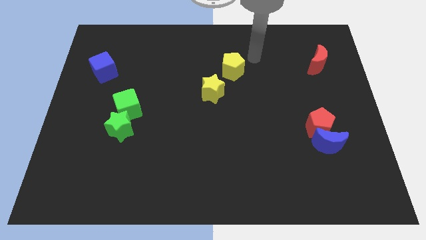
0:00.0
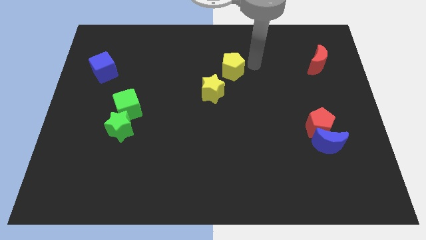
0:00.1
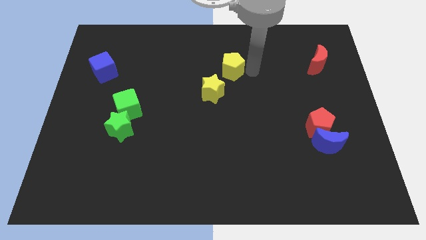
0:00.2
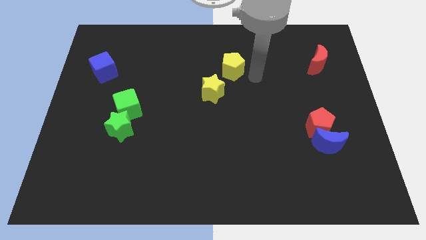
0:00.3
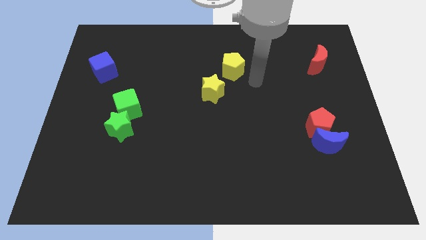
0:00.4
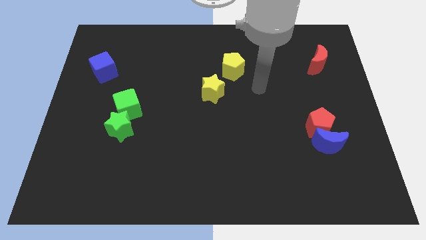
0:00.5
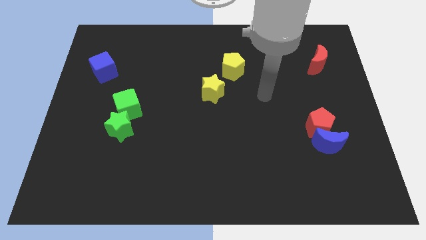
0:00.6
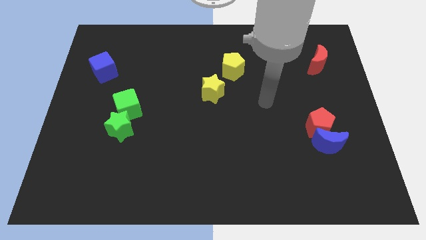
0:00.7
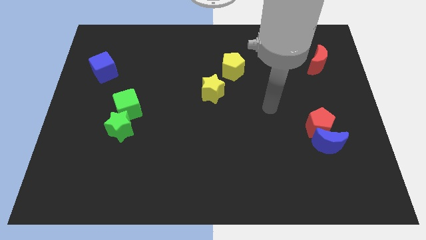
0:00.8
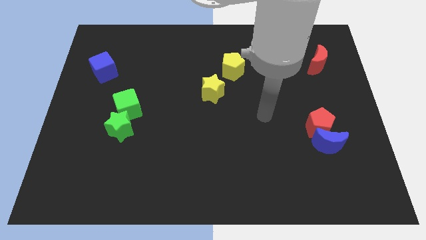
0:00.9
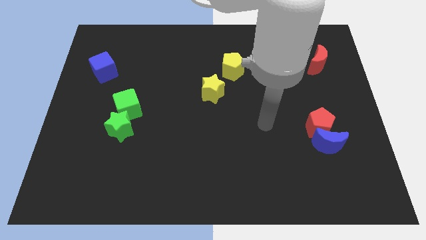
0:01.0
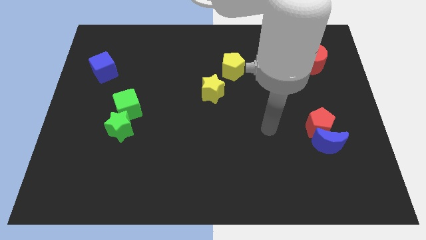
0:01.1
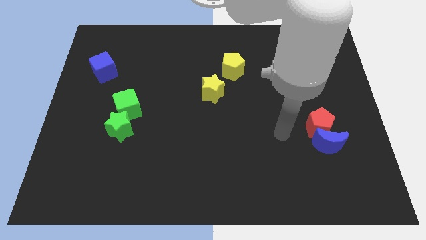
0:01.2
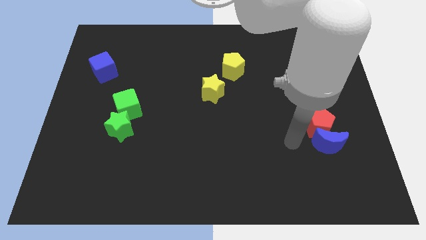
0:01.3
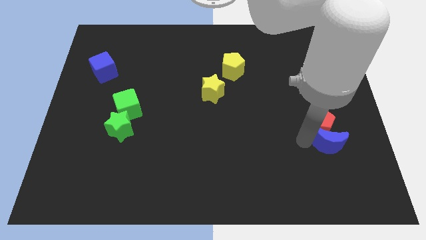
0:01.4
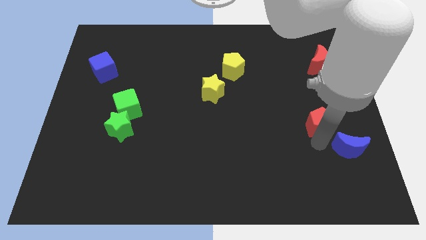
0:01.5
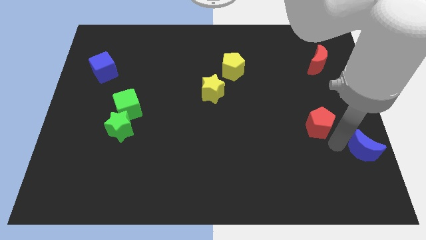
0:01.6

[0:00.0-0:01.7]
separate the red pentagon from the blue moon

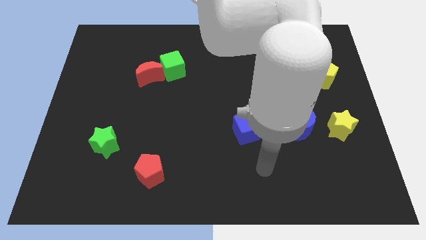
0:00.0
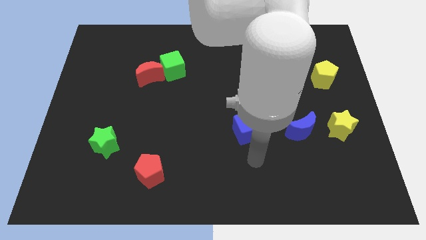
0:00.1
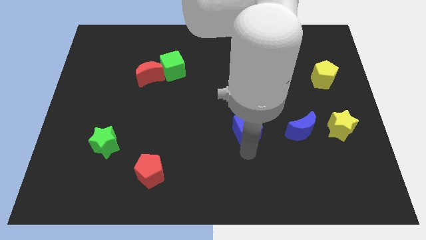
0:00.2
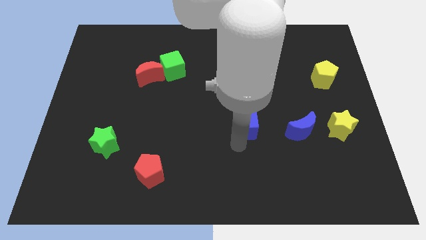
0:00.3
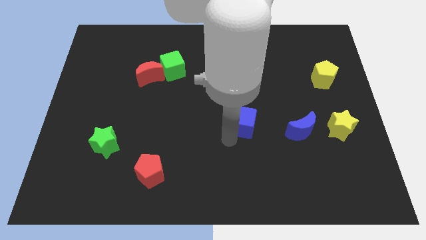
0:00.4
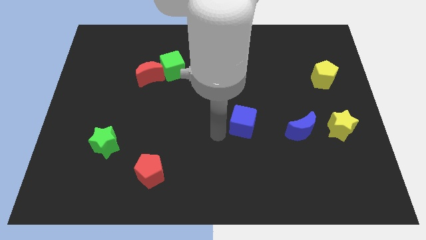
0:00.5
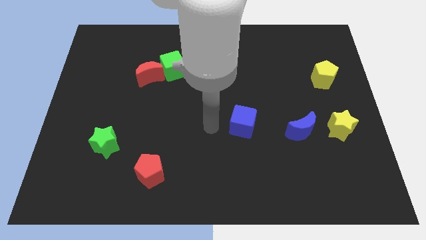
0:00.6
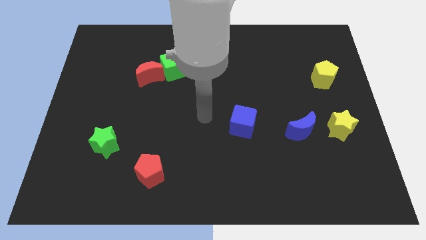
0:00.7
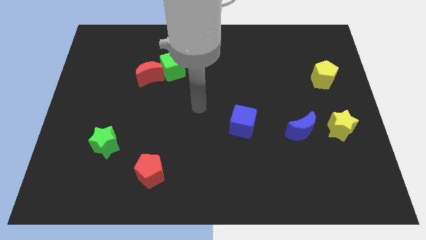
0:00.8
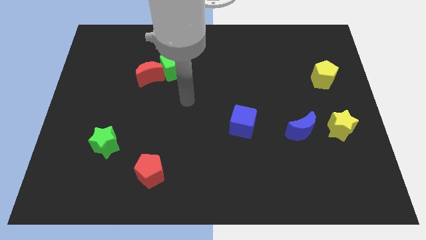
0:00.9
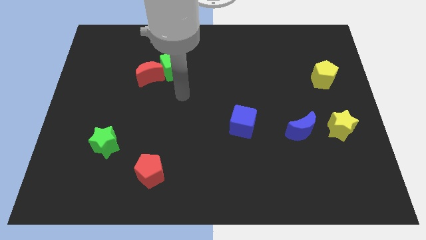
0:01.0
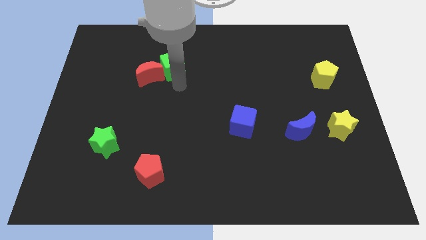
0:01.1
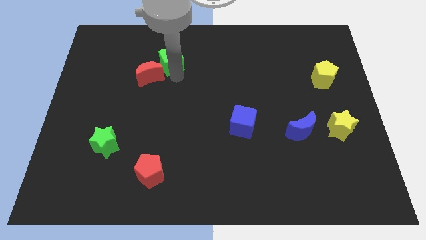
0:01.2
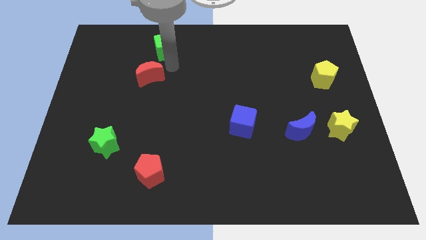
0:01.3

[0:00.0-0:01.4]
pull the red moon apart from the green cube

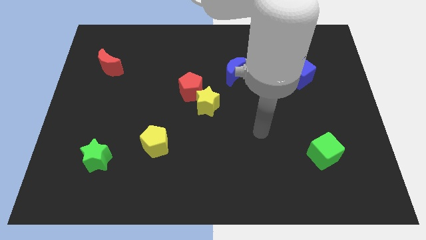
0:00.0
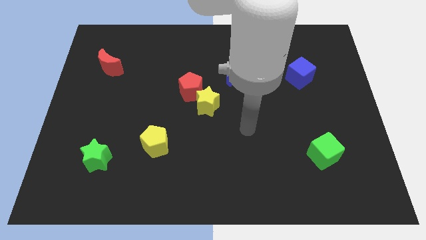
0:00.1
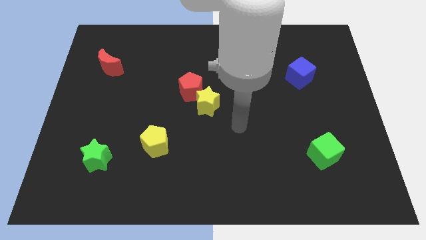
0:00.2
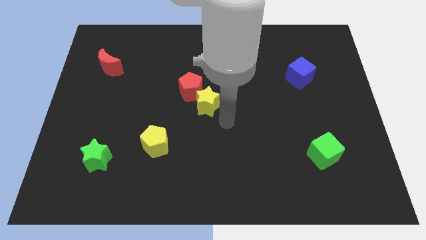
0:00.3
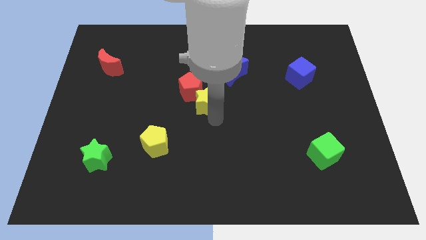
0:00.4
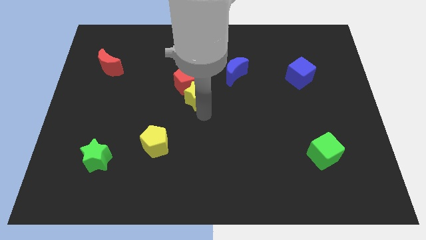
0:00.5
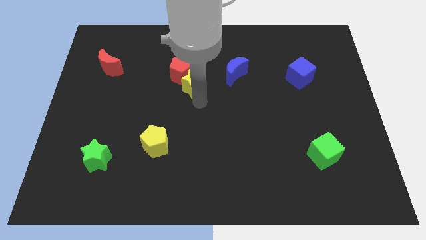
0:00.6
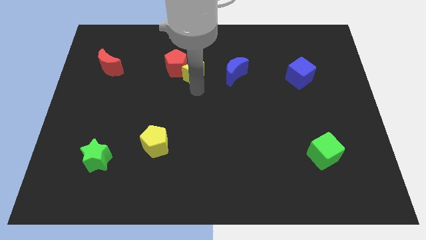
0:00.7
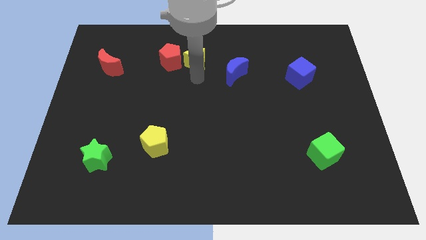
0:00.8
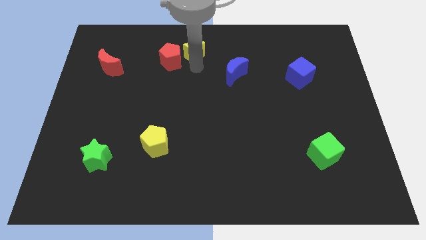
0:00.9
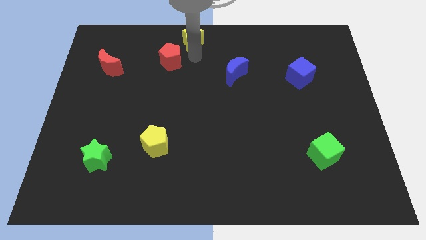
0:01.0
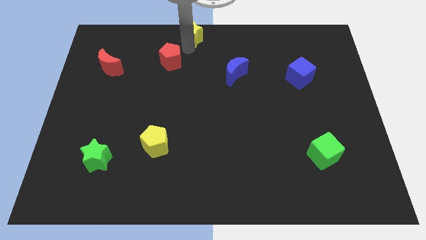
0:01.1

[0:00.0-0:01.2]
pull the red pentagon apart from the yellow star

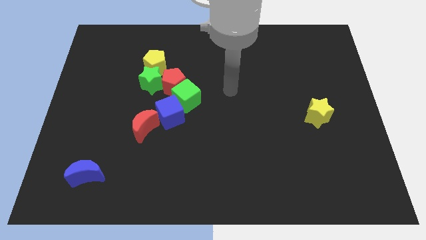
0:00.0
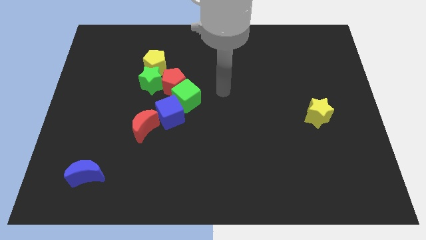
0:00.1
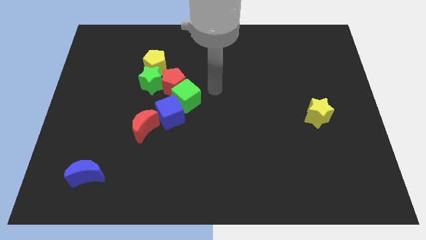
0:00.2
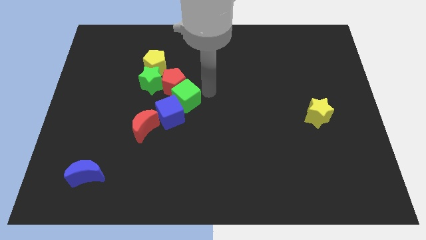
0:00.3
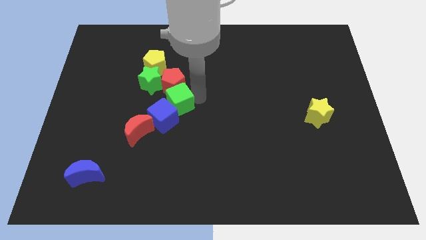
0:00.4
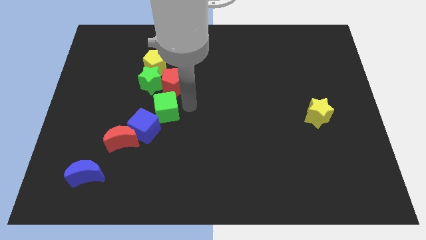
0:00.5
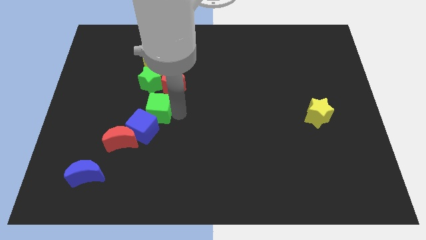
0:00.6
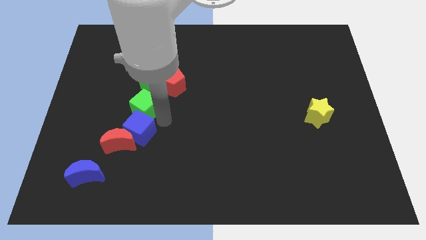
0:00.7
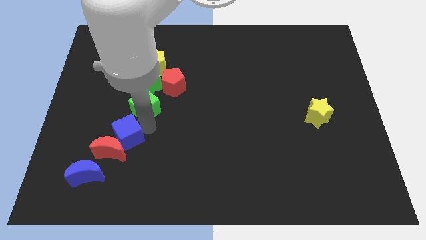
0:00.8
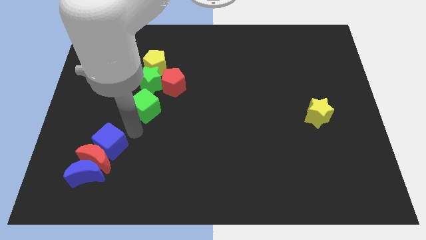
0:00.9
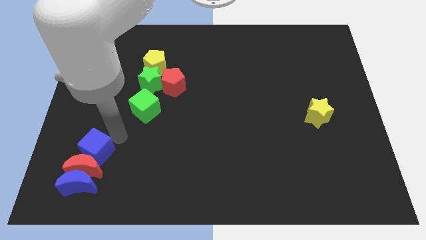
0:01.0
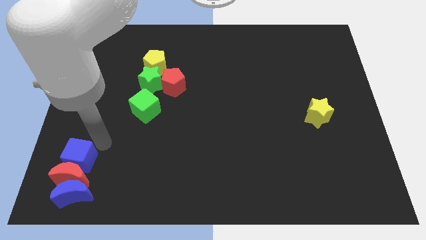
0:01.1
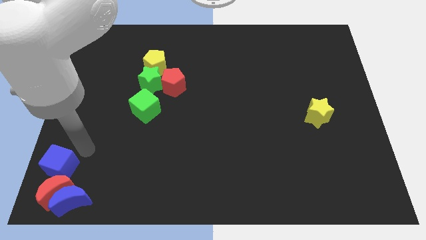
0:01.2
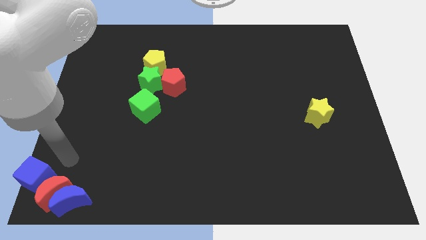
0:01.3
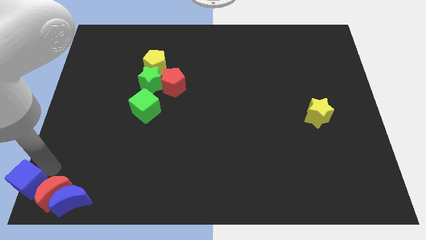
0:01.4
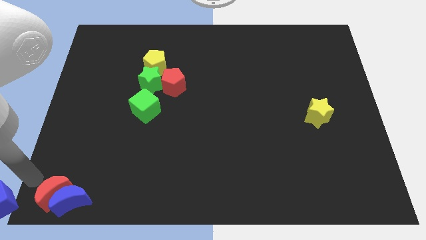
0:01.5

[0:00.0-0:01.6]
move the red moon away from the blue cube

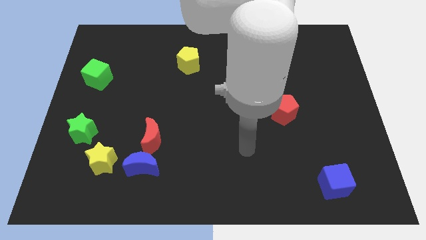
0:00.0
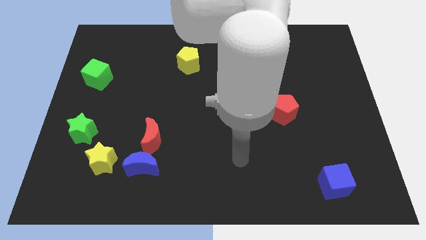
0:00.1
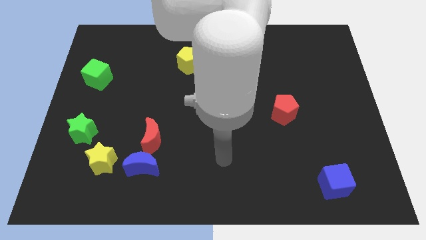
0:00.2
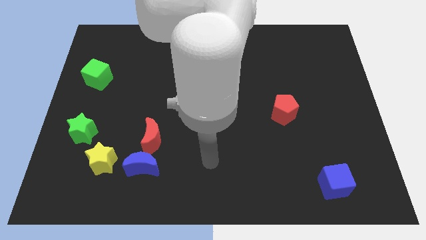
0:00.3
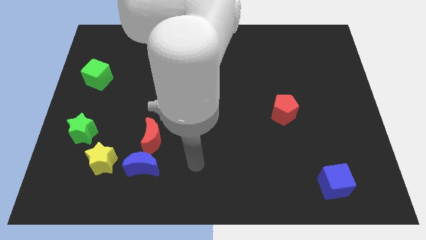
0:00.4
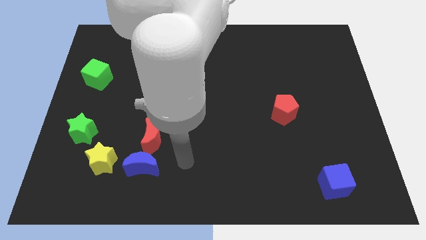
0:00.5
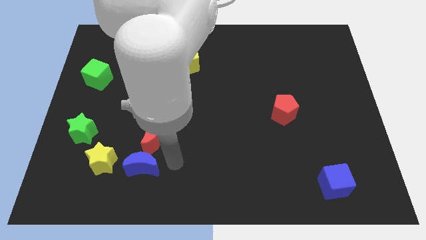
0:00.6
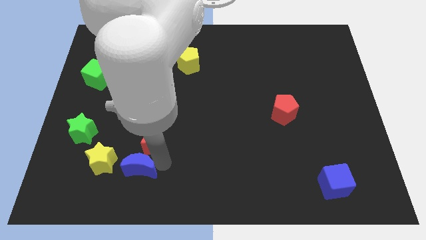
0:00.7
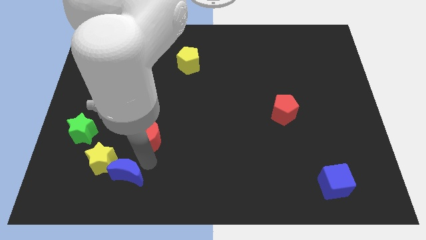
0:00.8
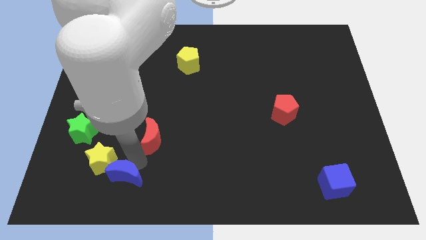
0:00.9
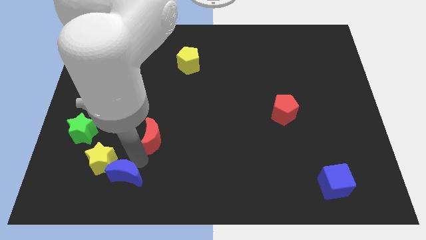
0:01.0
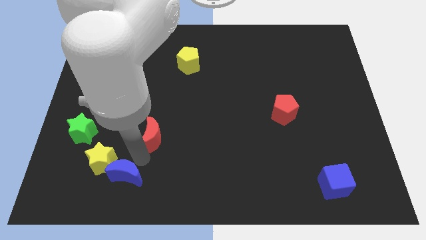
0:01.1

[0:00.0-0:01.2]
move the red moon away from the blue moon

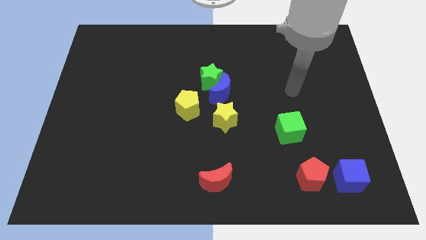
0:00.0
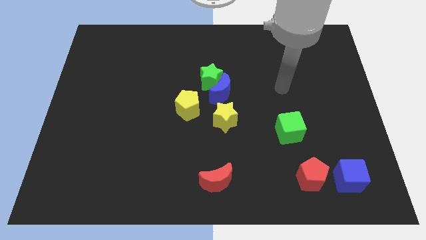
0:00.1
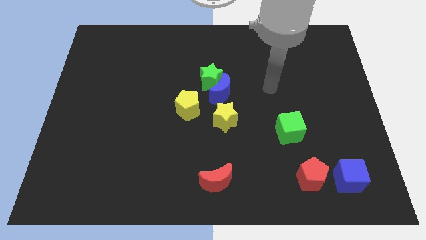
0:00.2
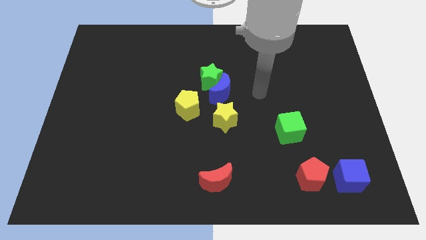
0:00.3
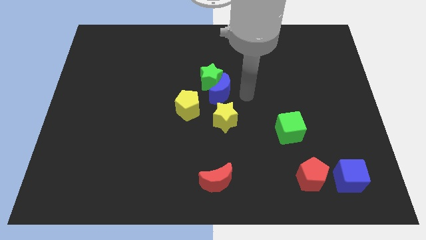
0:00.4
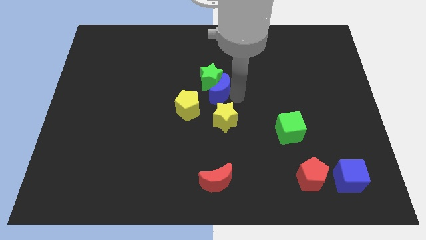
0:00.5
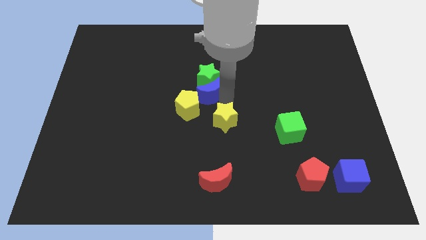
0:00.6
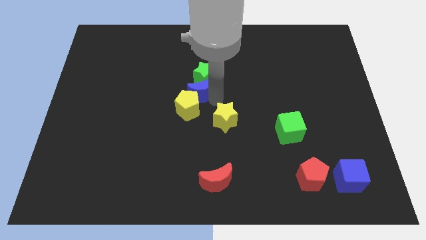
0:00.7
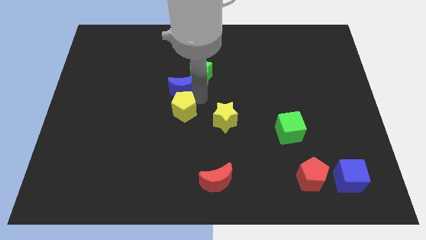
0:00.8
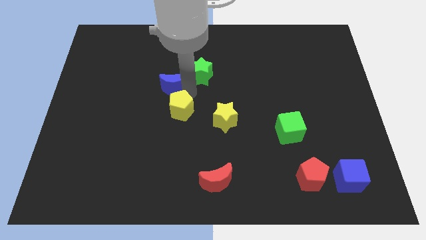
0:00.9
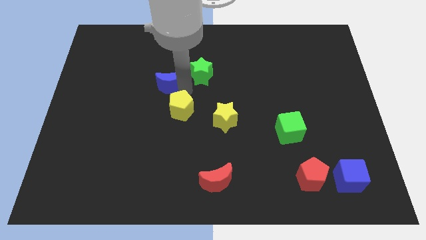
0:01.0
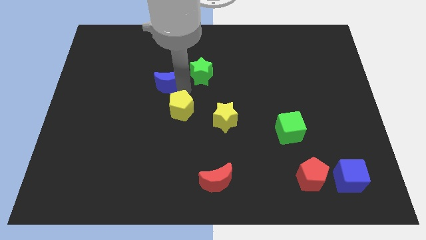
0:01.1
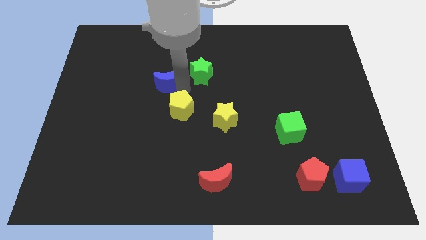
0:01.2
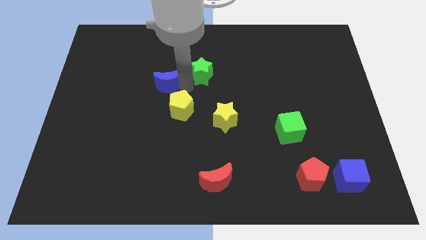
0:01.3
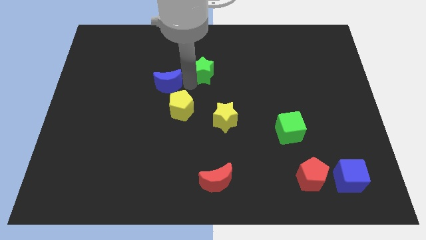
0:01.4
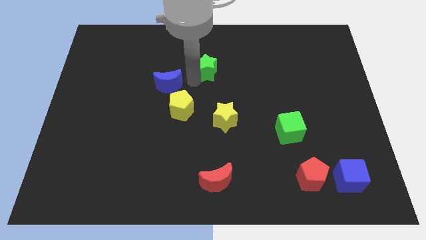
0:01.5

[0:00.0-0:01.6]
separate the green star from the blue moon and yellow pentagon

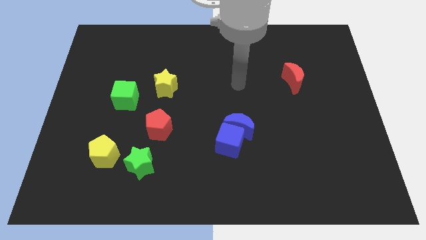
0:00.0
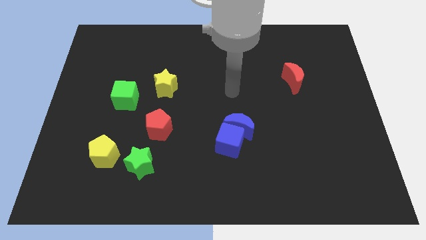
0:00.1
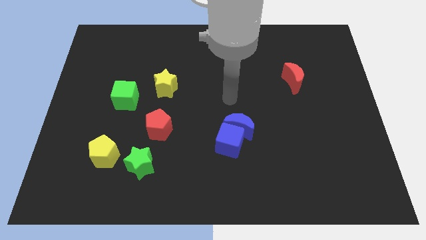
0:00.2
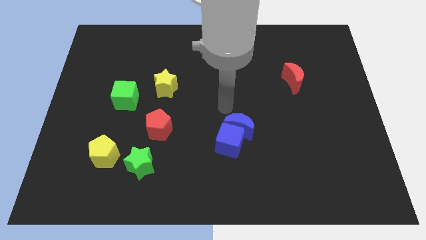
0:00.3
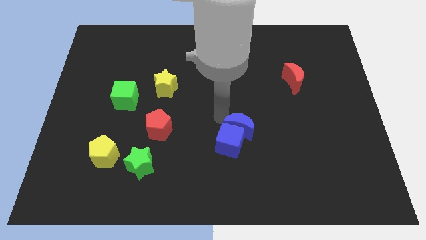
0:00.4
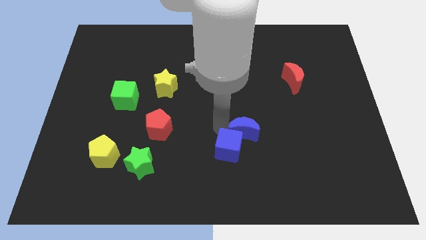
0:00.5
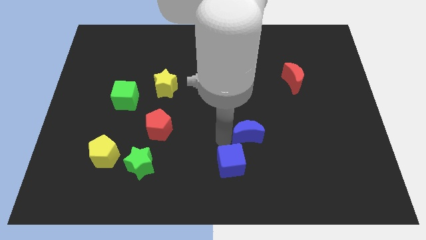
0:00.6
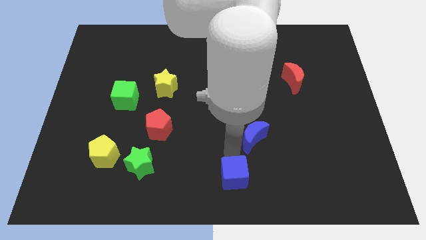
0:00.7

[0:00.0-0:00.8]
move the blue moon away from the blue cube
